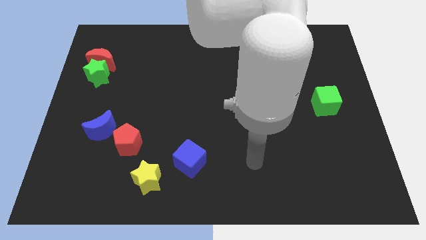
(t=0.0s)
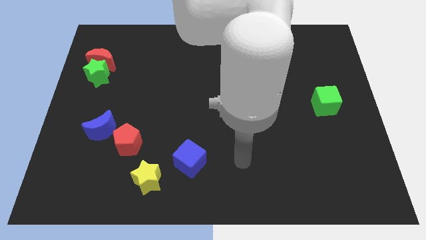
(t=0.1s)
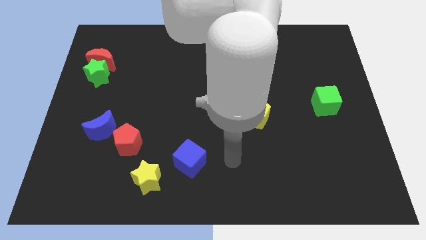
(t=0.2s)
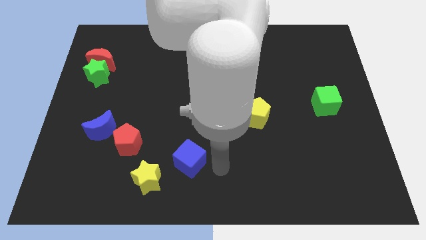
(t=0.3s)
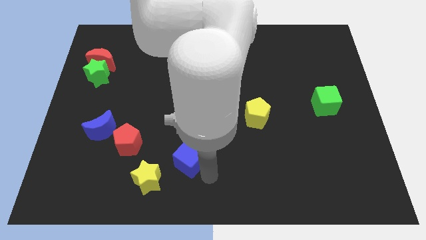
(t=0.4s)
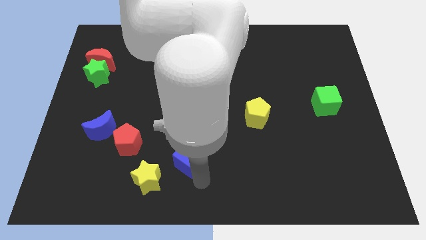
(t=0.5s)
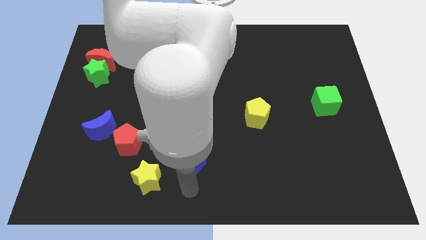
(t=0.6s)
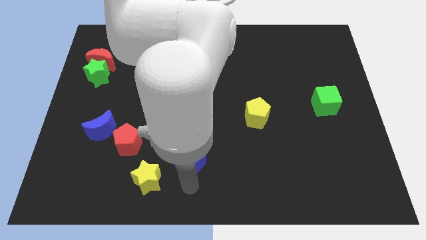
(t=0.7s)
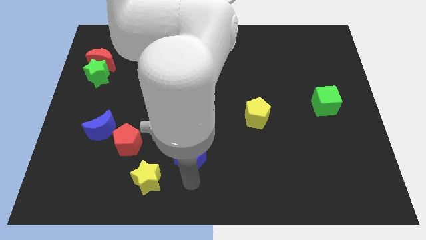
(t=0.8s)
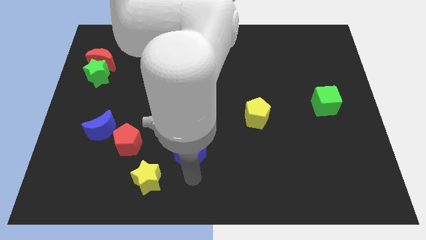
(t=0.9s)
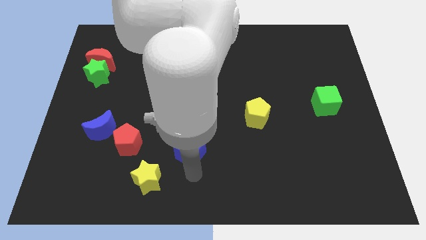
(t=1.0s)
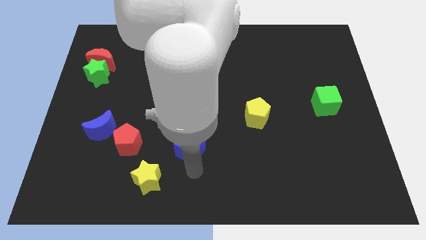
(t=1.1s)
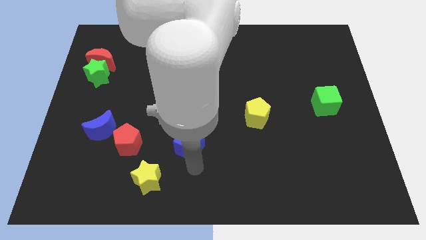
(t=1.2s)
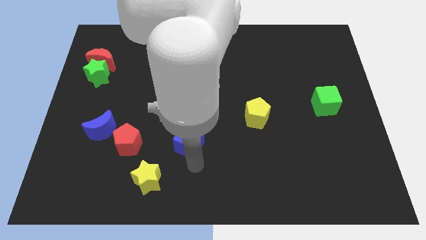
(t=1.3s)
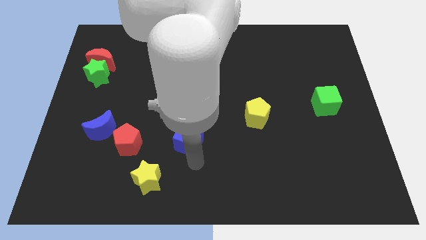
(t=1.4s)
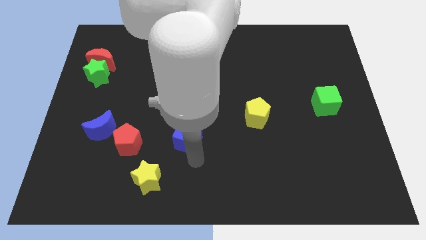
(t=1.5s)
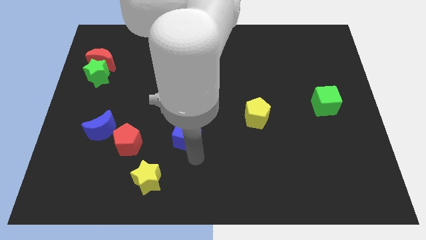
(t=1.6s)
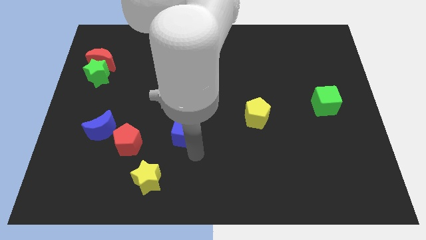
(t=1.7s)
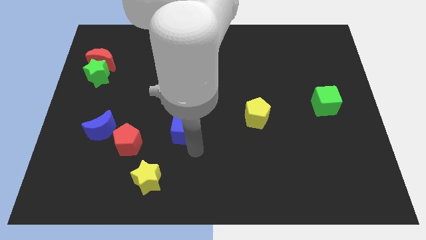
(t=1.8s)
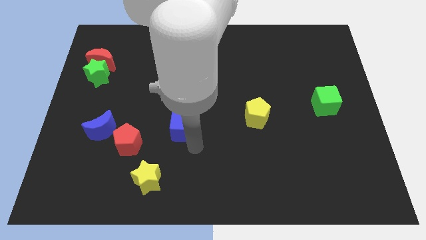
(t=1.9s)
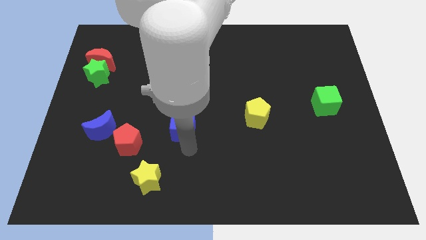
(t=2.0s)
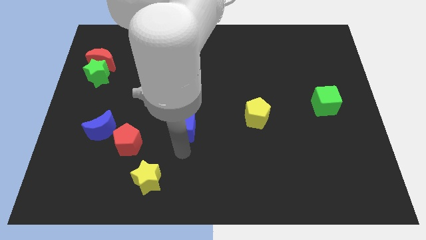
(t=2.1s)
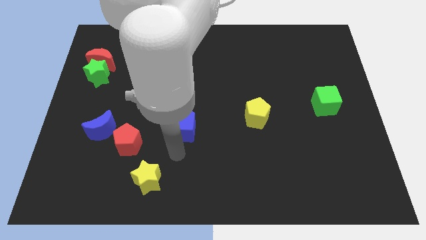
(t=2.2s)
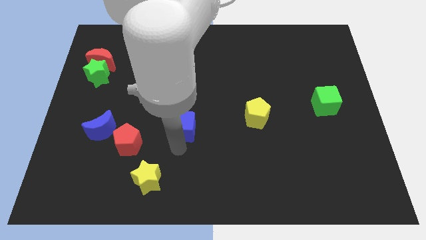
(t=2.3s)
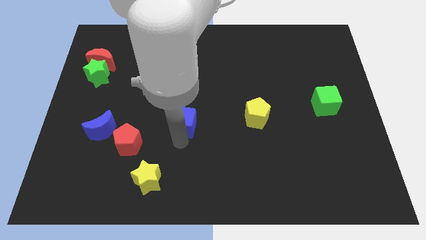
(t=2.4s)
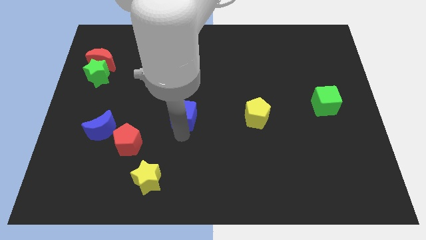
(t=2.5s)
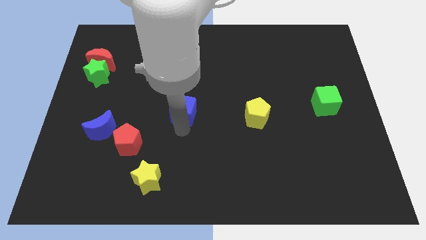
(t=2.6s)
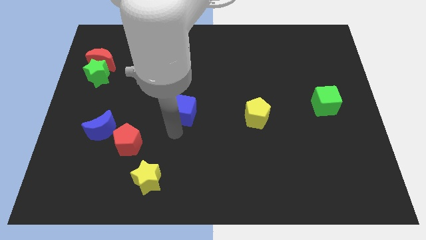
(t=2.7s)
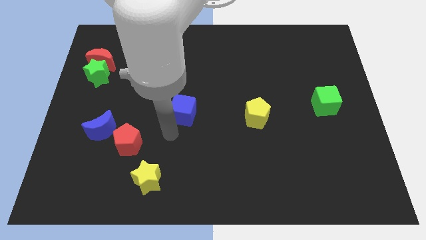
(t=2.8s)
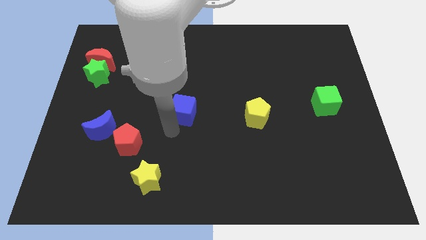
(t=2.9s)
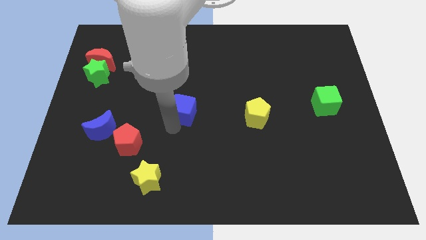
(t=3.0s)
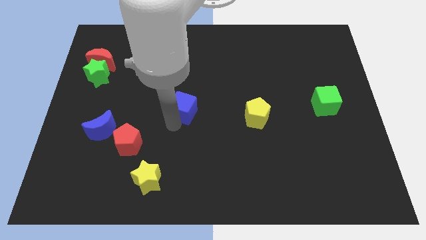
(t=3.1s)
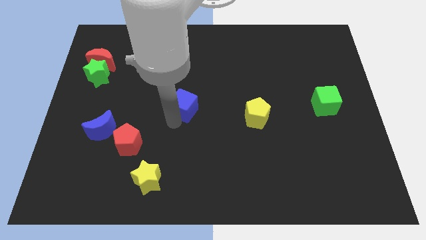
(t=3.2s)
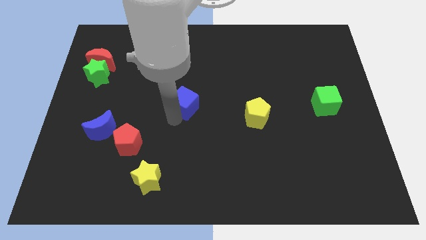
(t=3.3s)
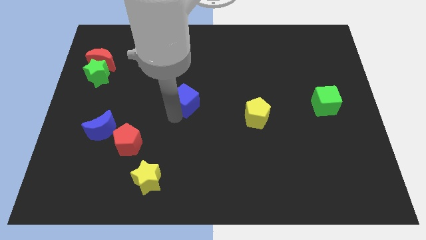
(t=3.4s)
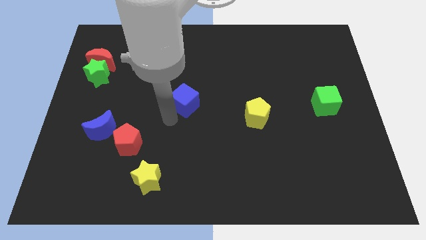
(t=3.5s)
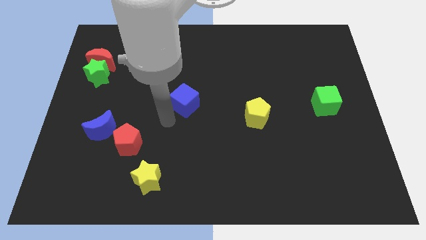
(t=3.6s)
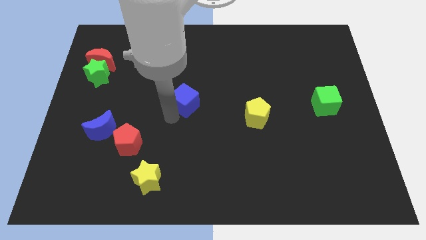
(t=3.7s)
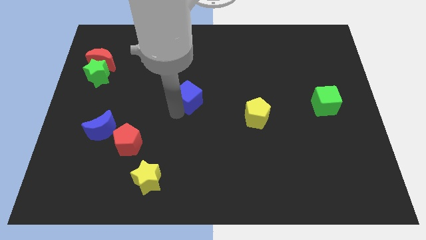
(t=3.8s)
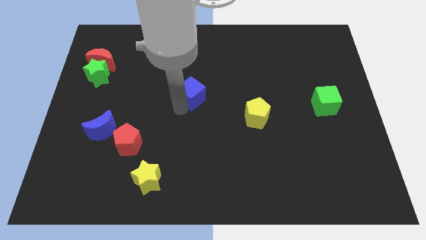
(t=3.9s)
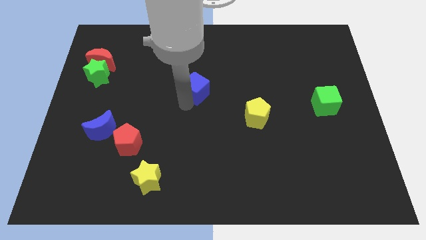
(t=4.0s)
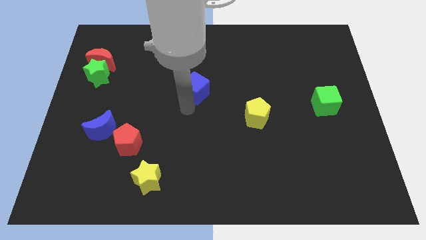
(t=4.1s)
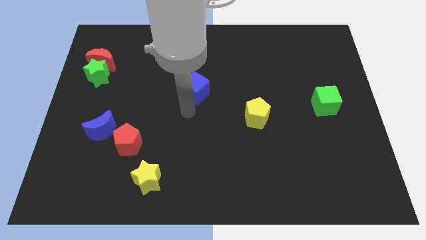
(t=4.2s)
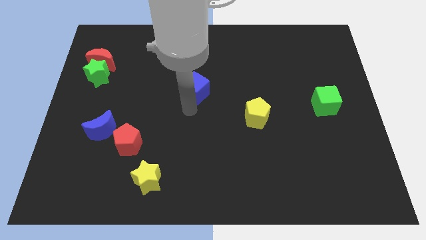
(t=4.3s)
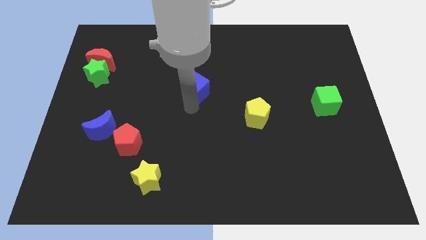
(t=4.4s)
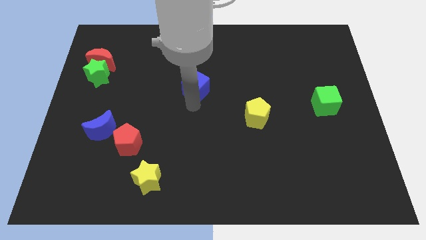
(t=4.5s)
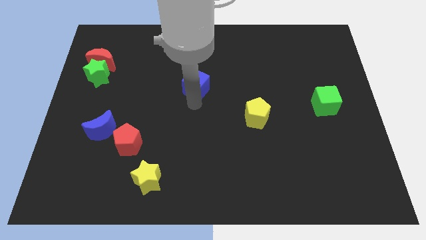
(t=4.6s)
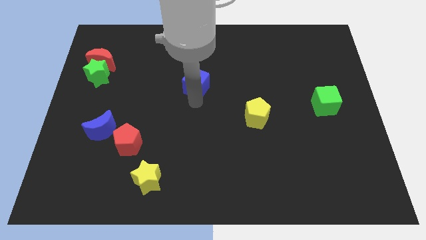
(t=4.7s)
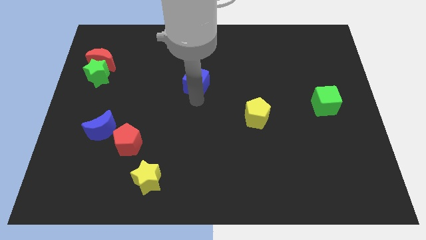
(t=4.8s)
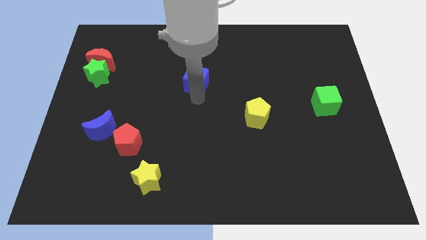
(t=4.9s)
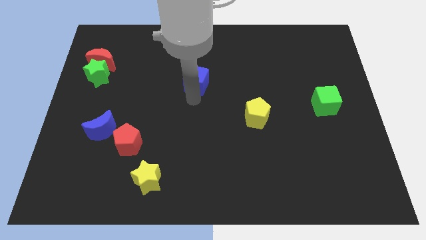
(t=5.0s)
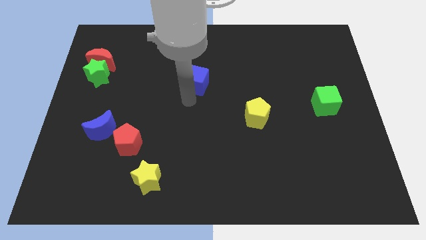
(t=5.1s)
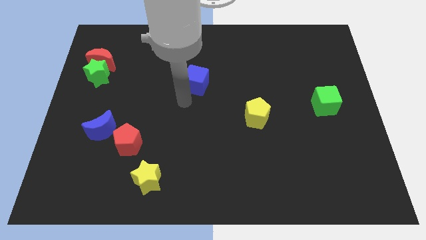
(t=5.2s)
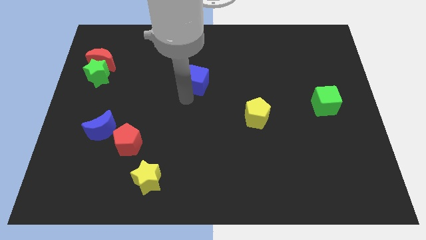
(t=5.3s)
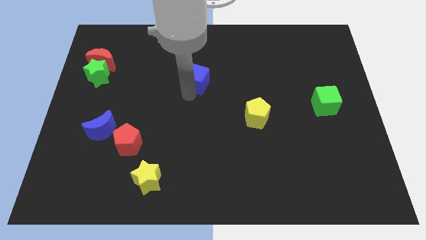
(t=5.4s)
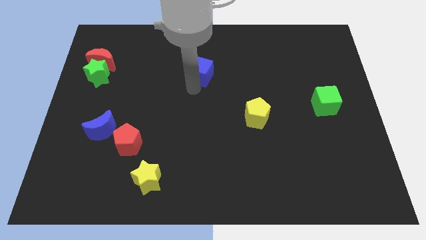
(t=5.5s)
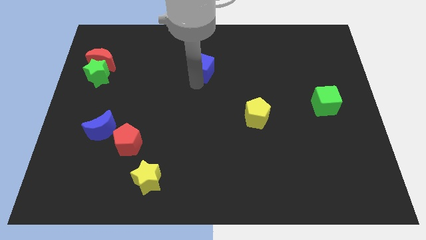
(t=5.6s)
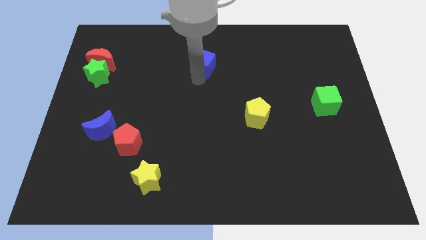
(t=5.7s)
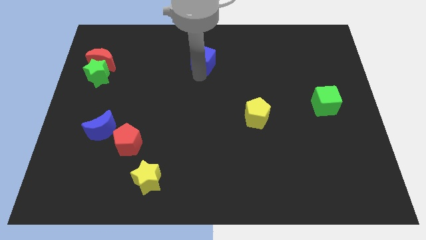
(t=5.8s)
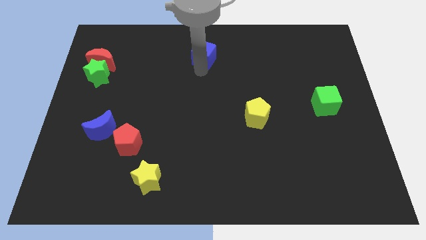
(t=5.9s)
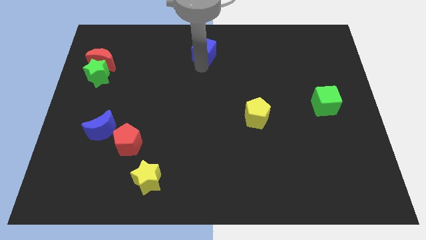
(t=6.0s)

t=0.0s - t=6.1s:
put the blue cube to the top

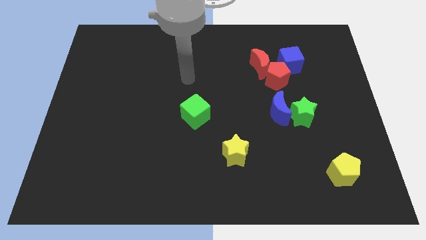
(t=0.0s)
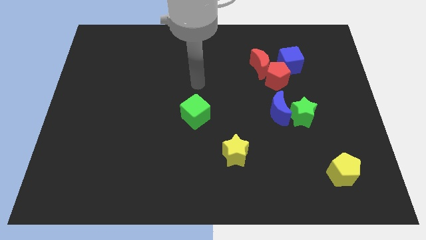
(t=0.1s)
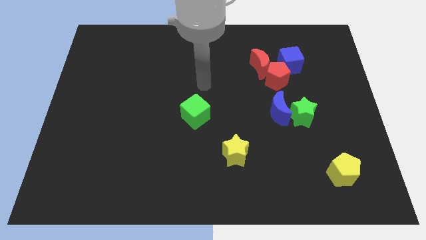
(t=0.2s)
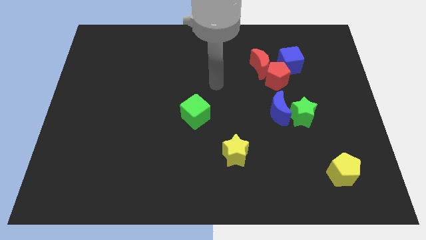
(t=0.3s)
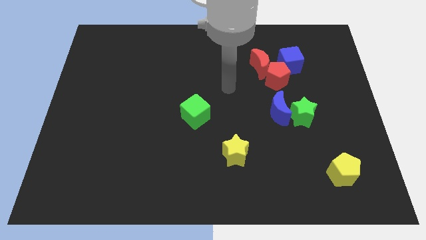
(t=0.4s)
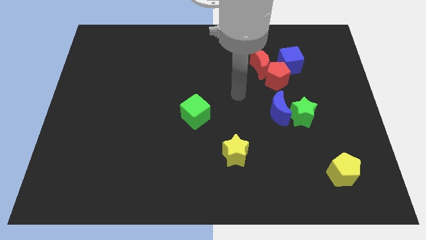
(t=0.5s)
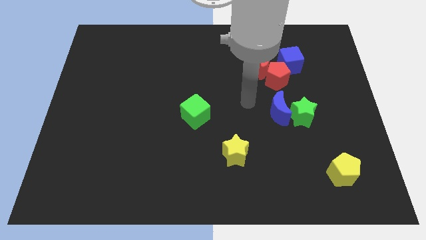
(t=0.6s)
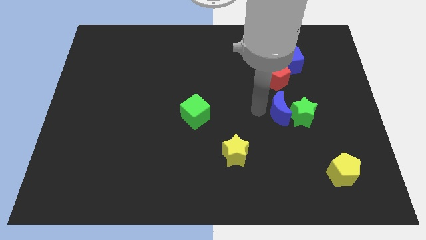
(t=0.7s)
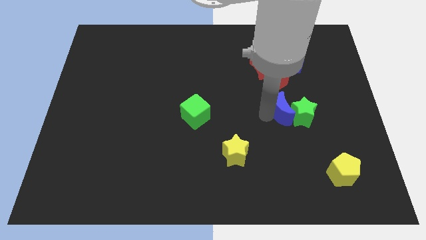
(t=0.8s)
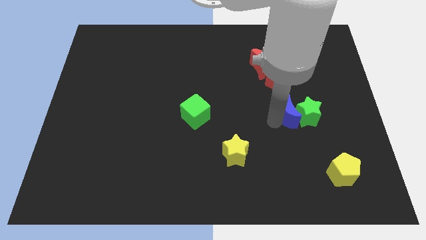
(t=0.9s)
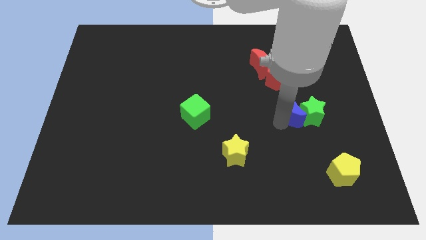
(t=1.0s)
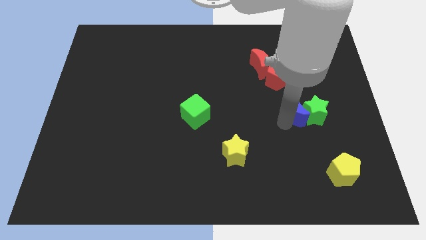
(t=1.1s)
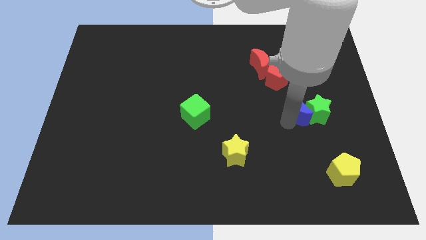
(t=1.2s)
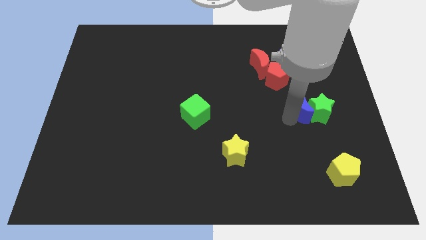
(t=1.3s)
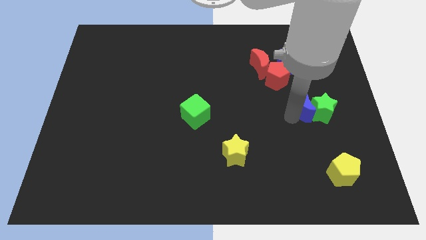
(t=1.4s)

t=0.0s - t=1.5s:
push the green star to the right side

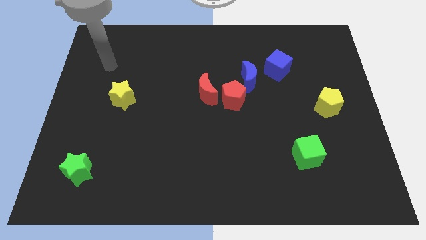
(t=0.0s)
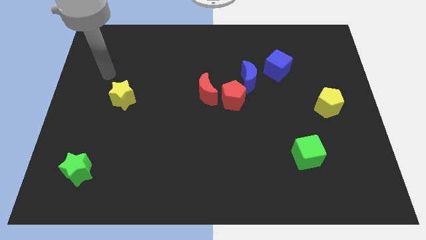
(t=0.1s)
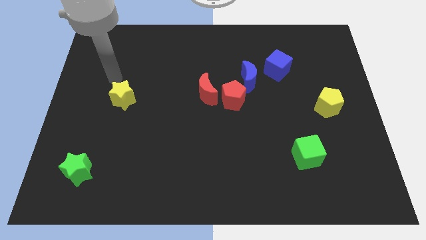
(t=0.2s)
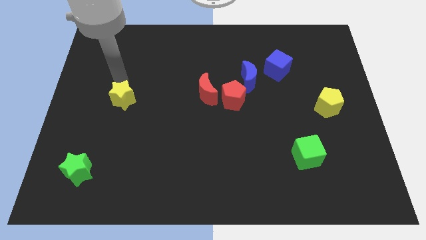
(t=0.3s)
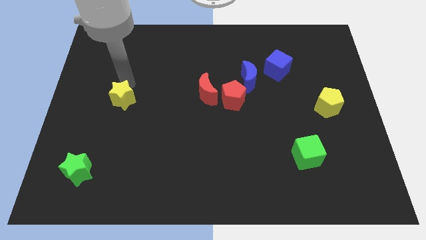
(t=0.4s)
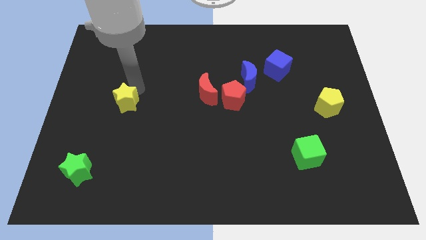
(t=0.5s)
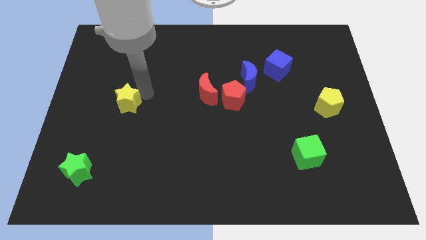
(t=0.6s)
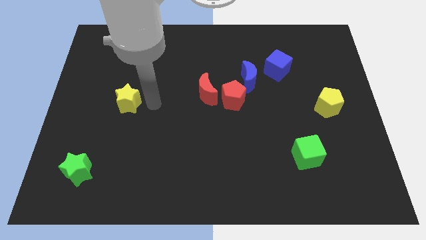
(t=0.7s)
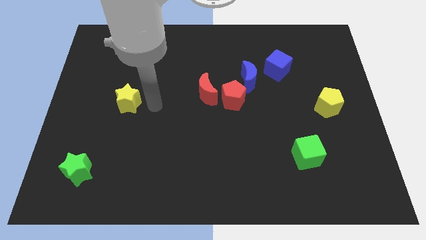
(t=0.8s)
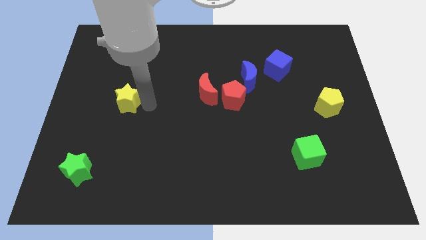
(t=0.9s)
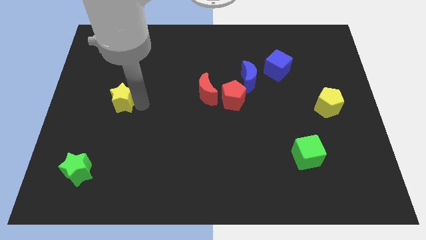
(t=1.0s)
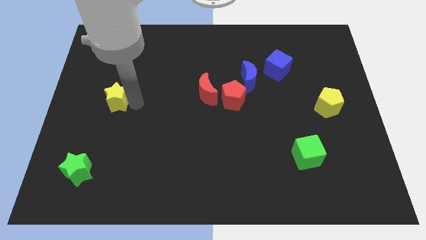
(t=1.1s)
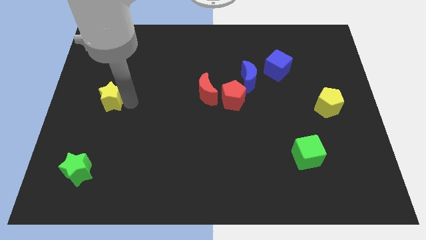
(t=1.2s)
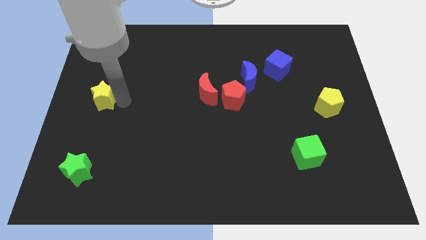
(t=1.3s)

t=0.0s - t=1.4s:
put the yellow star to the center left
